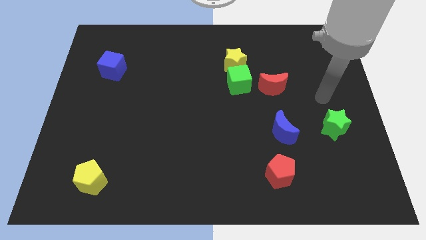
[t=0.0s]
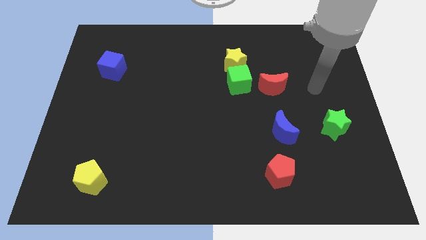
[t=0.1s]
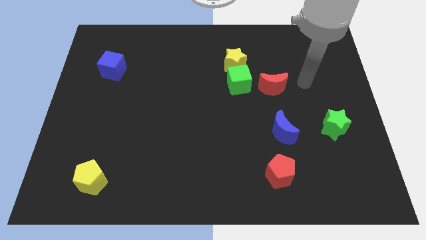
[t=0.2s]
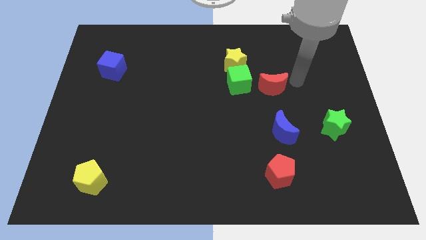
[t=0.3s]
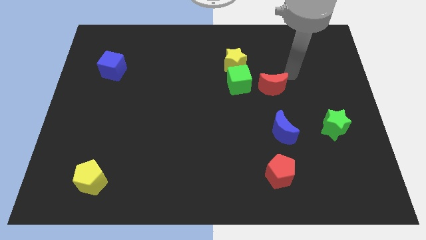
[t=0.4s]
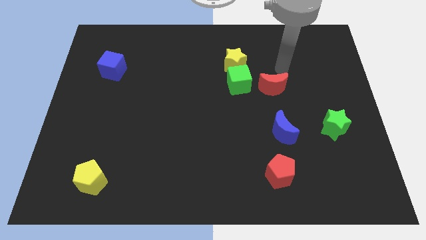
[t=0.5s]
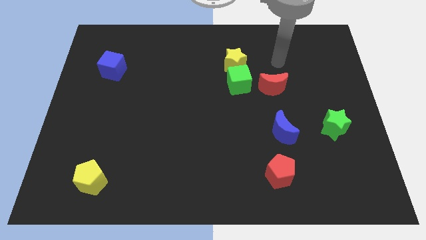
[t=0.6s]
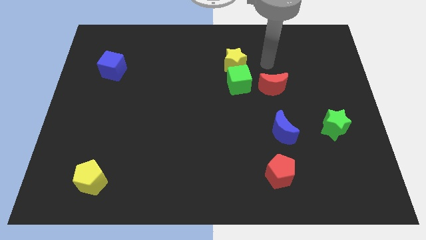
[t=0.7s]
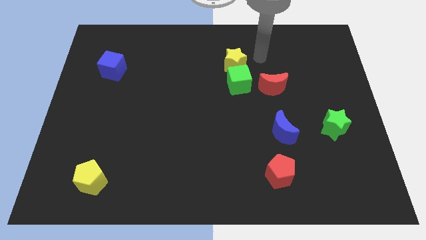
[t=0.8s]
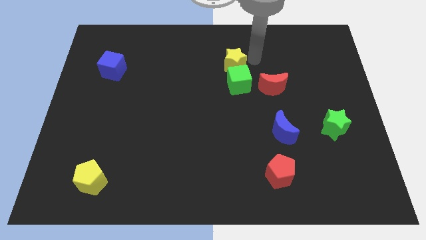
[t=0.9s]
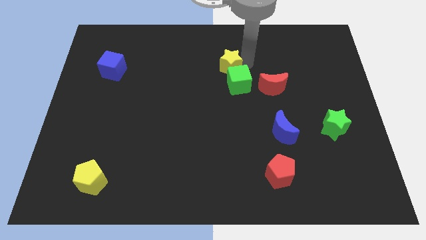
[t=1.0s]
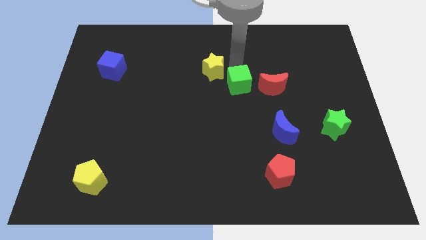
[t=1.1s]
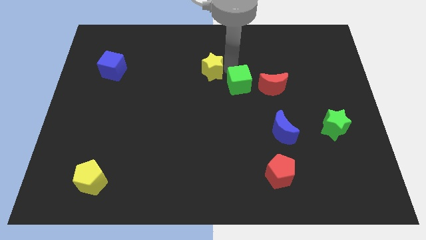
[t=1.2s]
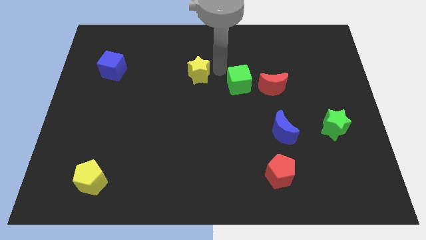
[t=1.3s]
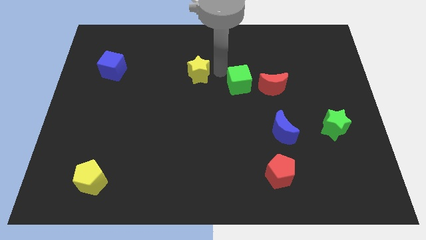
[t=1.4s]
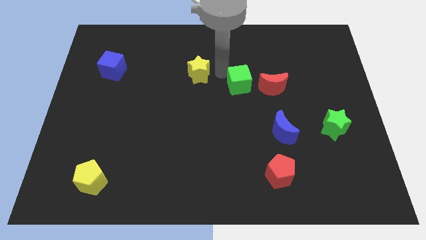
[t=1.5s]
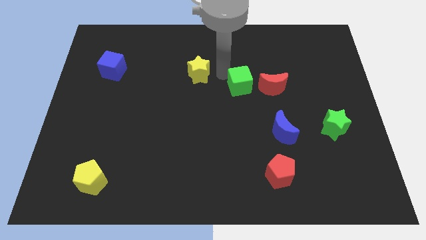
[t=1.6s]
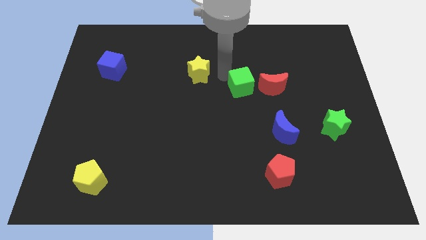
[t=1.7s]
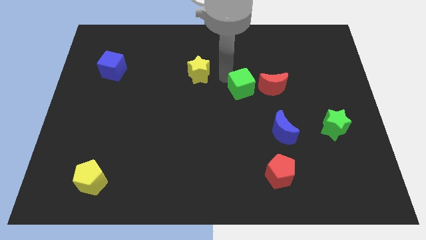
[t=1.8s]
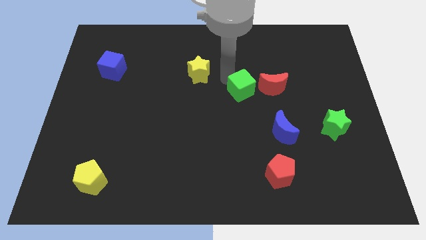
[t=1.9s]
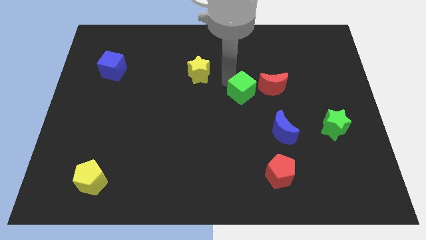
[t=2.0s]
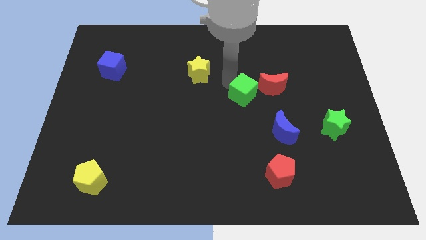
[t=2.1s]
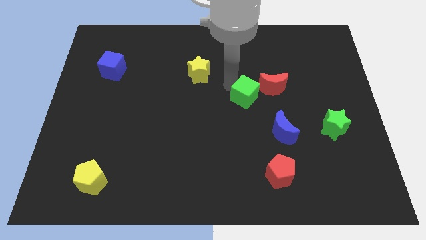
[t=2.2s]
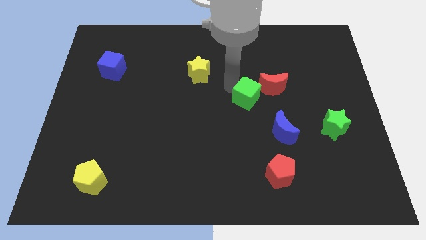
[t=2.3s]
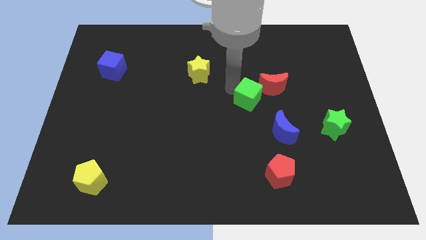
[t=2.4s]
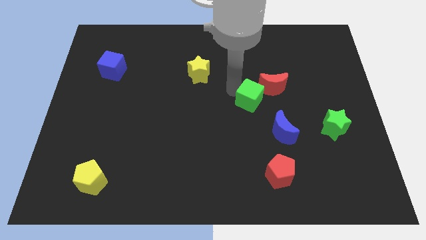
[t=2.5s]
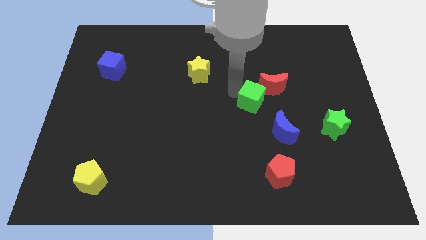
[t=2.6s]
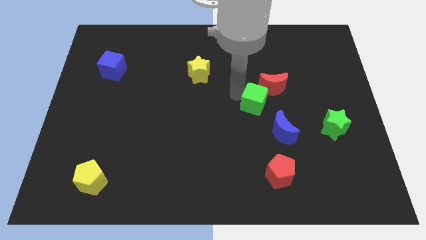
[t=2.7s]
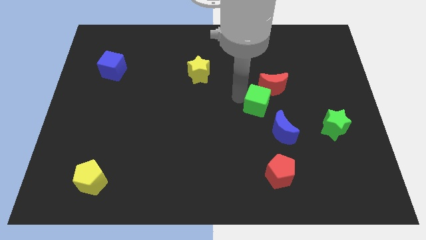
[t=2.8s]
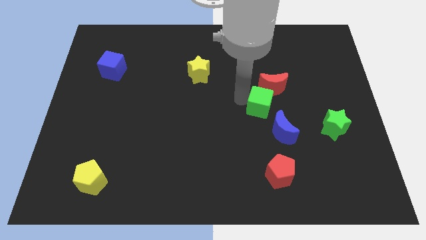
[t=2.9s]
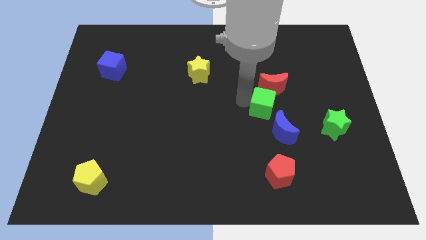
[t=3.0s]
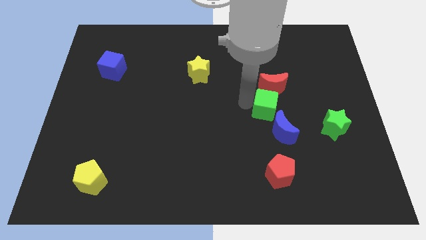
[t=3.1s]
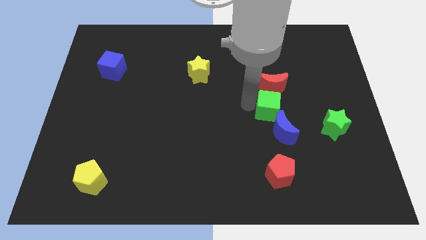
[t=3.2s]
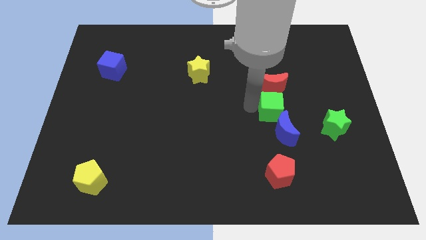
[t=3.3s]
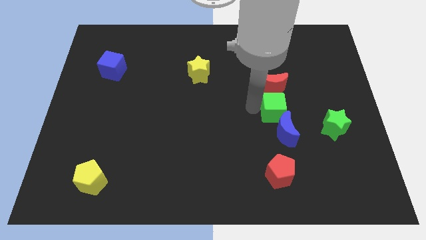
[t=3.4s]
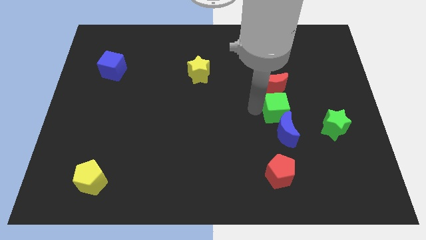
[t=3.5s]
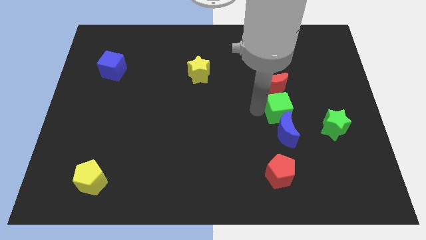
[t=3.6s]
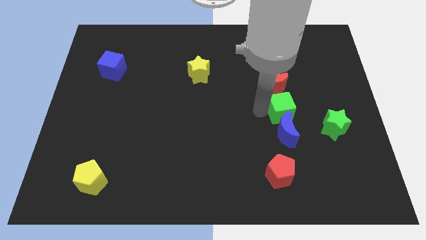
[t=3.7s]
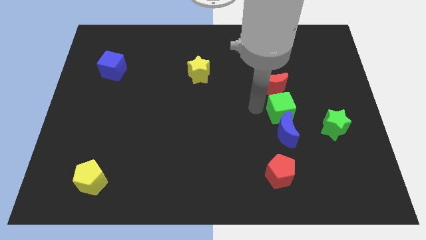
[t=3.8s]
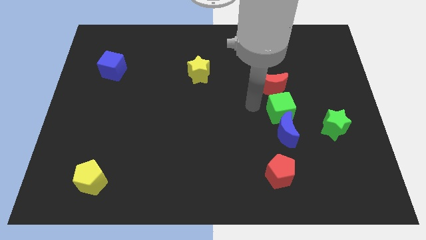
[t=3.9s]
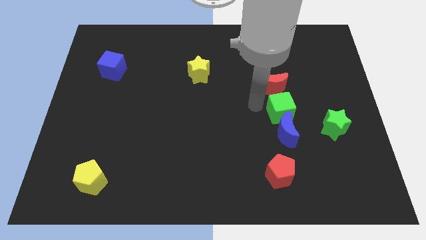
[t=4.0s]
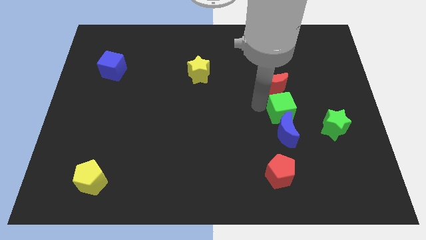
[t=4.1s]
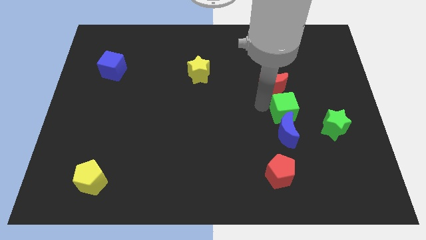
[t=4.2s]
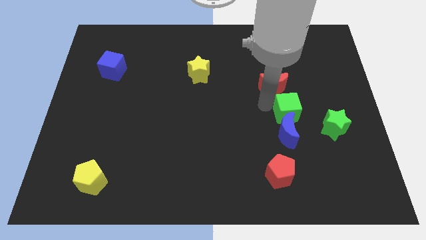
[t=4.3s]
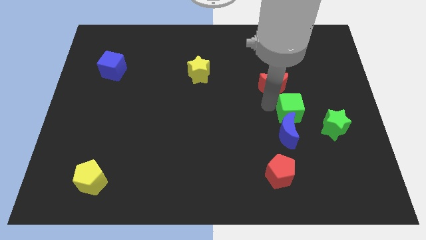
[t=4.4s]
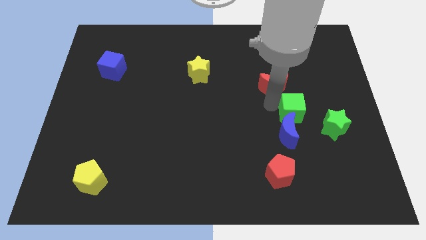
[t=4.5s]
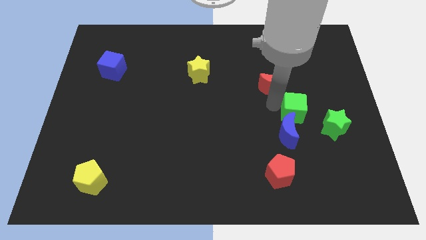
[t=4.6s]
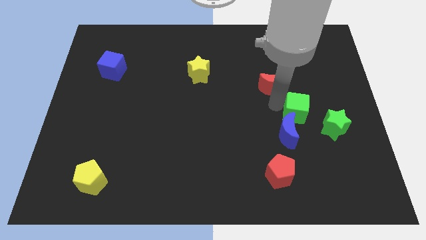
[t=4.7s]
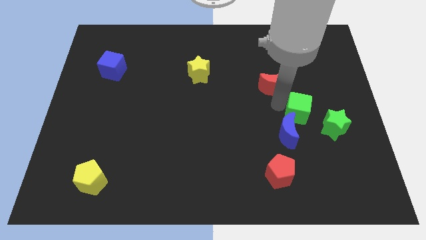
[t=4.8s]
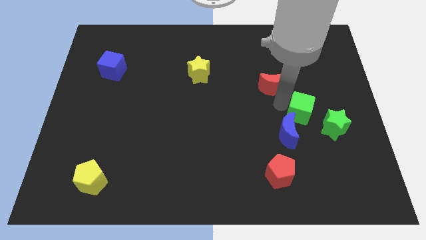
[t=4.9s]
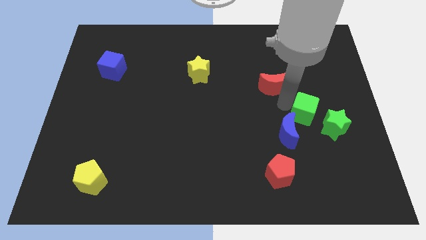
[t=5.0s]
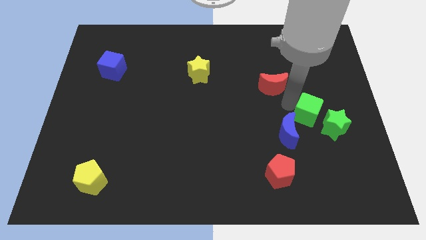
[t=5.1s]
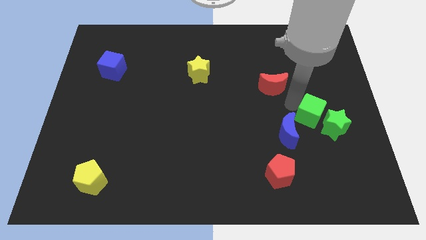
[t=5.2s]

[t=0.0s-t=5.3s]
move the green cube close to the green star

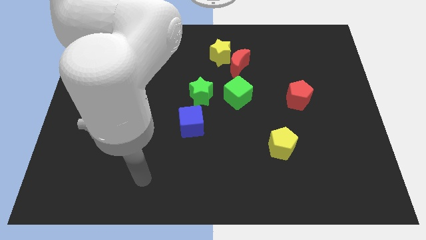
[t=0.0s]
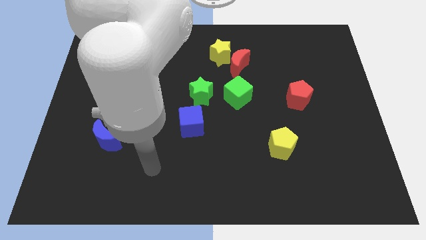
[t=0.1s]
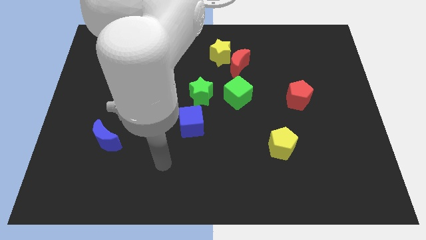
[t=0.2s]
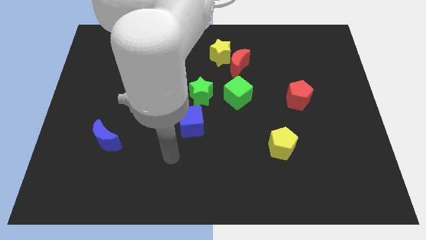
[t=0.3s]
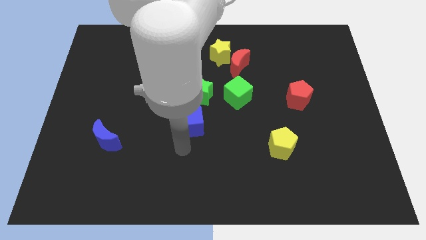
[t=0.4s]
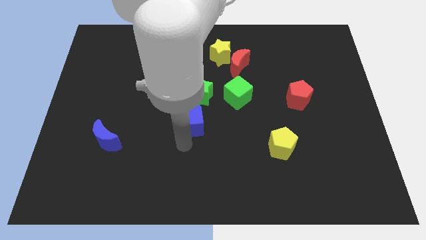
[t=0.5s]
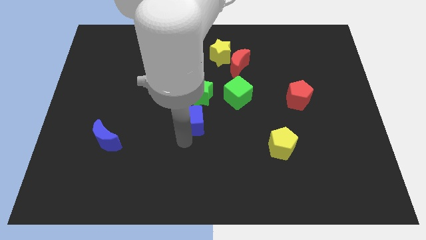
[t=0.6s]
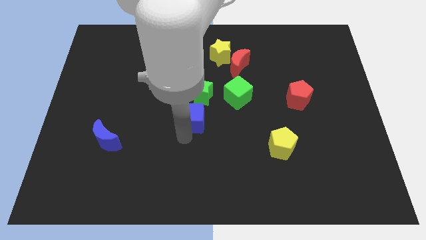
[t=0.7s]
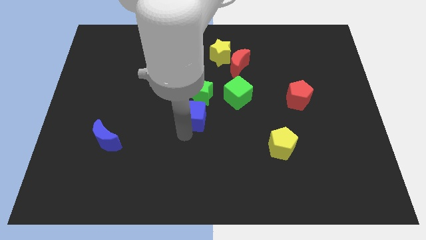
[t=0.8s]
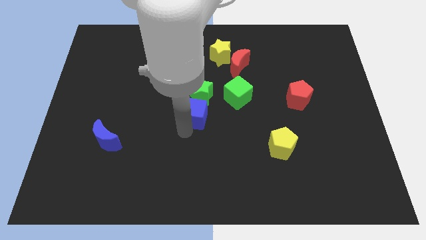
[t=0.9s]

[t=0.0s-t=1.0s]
put the blue cube next to the green star
